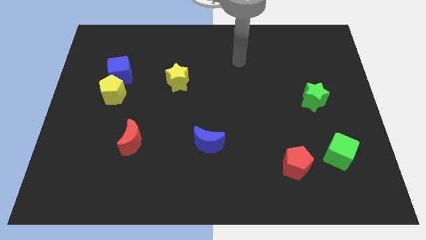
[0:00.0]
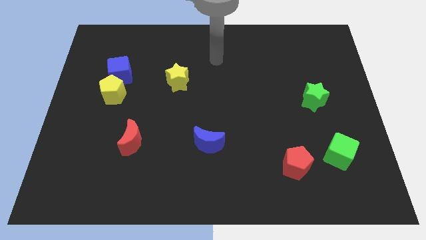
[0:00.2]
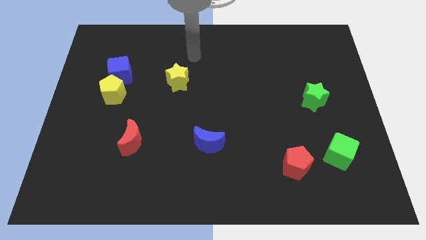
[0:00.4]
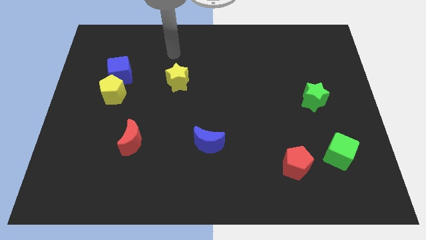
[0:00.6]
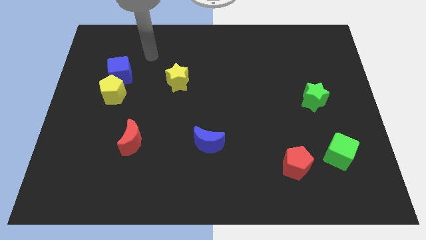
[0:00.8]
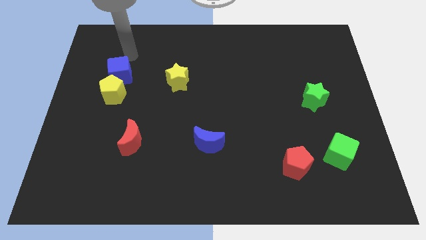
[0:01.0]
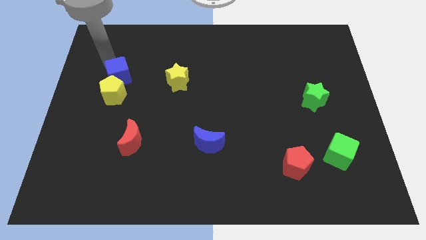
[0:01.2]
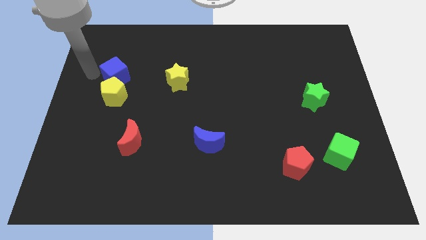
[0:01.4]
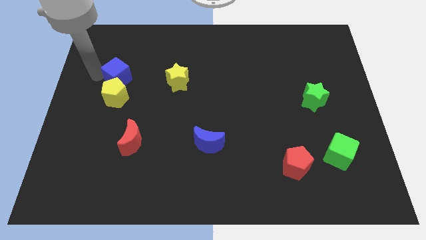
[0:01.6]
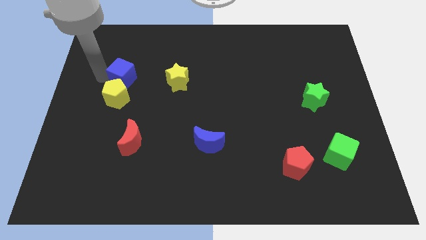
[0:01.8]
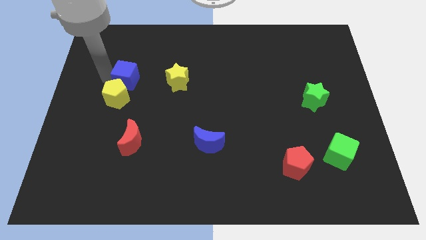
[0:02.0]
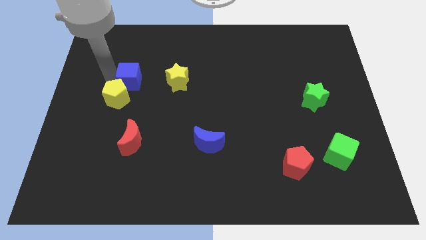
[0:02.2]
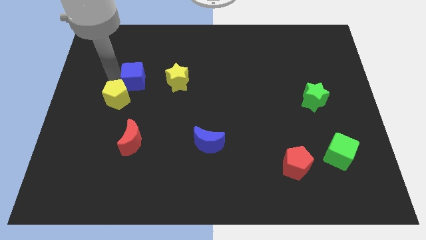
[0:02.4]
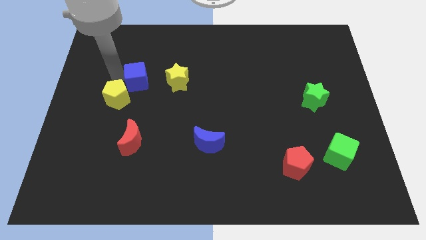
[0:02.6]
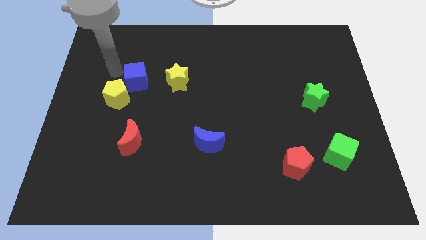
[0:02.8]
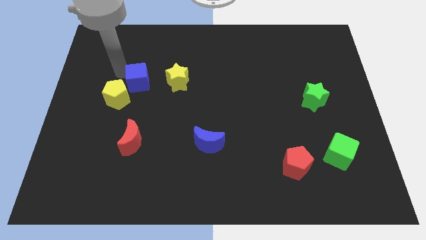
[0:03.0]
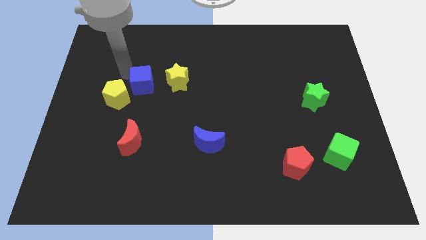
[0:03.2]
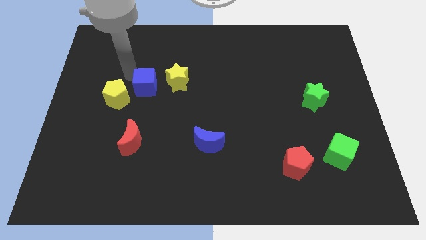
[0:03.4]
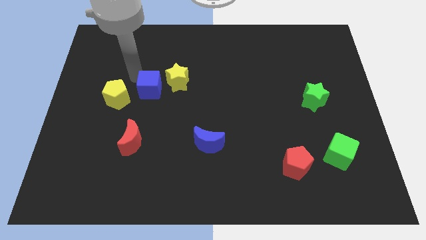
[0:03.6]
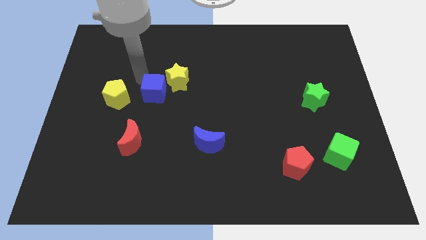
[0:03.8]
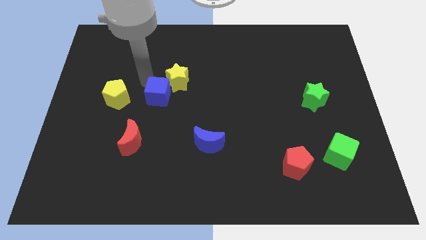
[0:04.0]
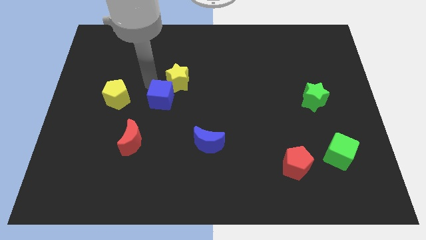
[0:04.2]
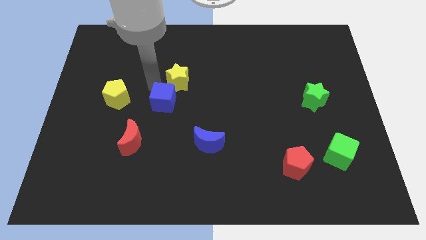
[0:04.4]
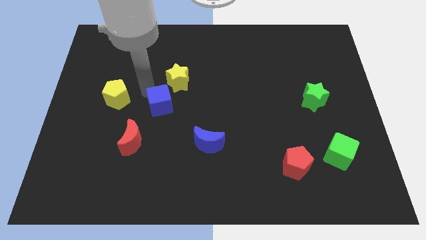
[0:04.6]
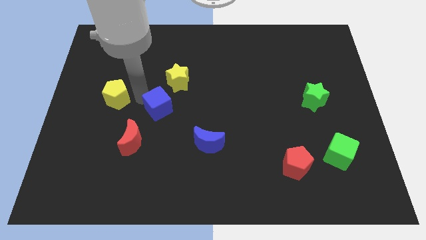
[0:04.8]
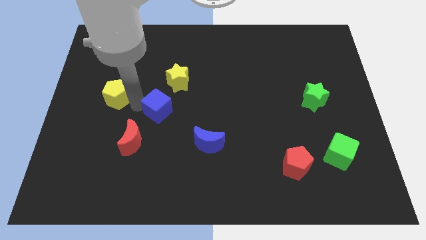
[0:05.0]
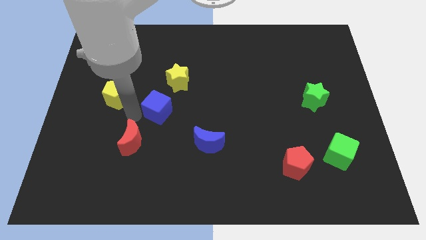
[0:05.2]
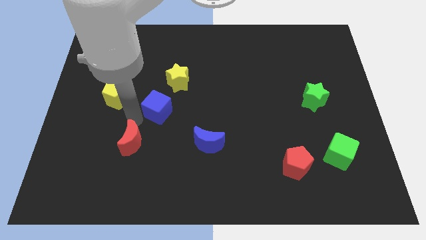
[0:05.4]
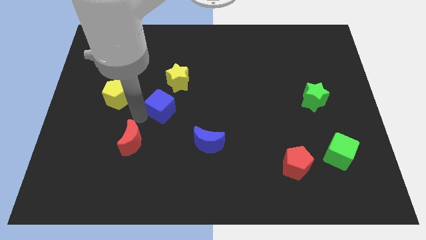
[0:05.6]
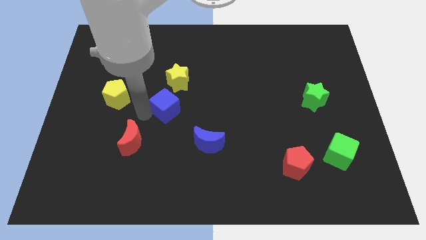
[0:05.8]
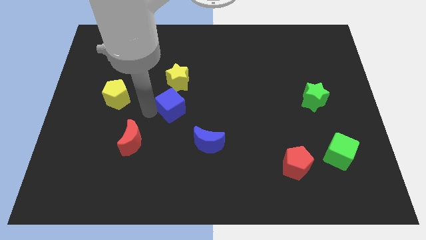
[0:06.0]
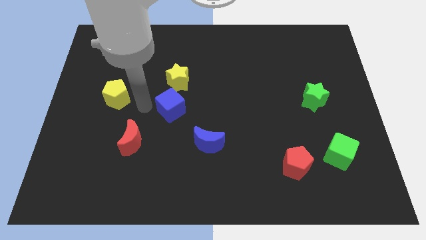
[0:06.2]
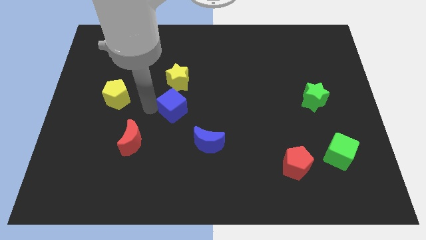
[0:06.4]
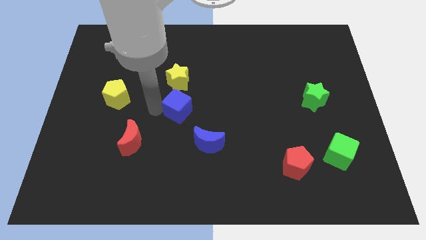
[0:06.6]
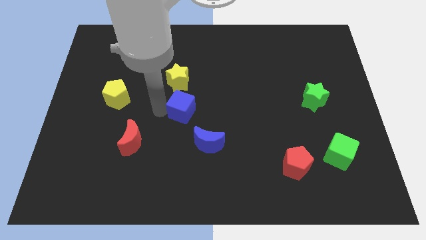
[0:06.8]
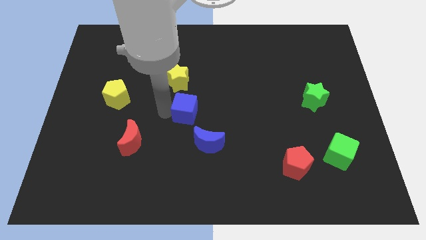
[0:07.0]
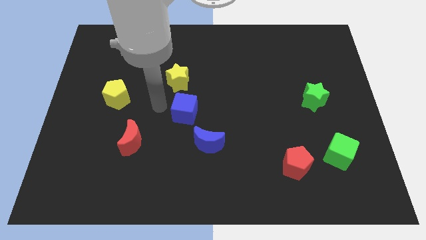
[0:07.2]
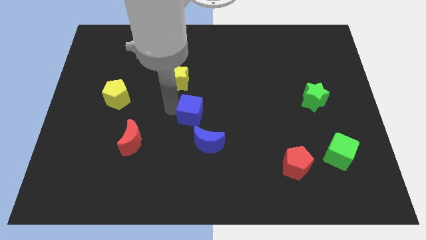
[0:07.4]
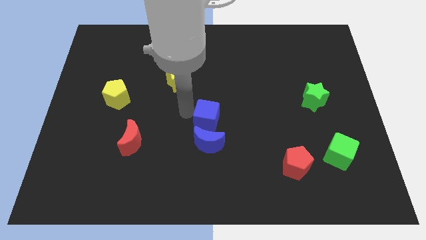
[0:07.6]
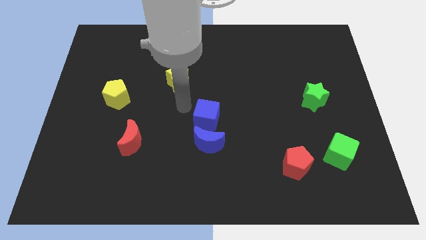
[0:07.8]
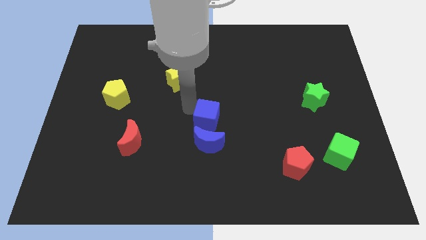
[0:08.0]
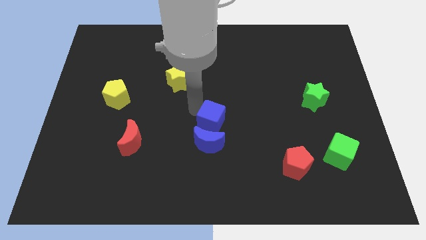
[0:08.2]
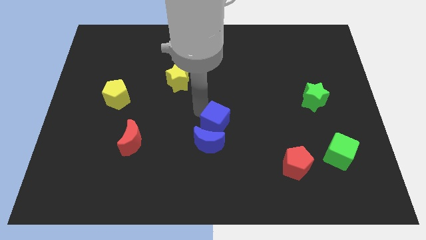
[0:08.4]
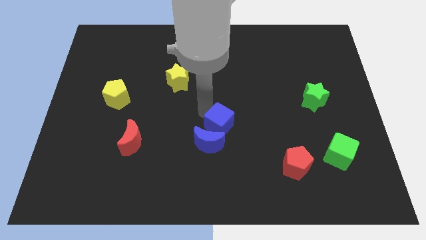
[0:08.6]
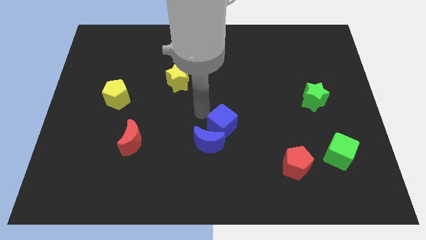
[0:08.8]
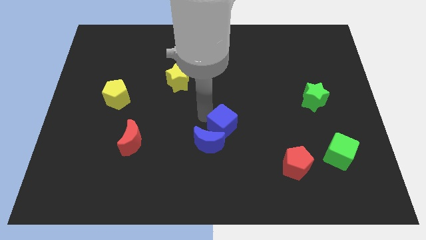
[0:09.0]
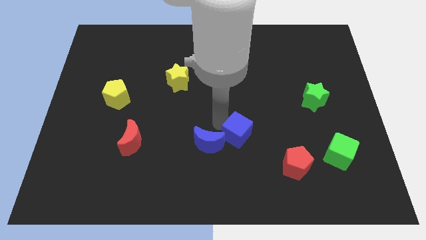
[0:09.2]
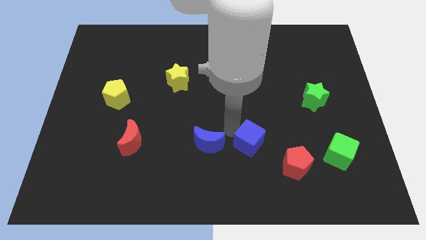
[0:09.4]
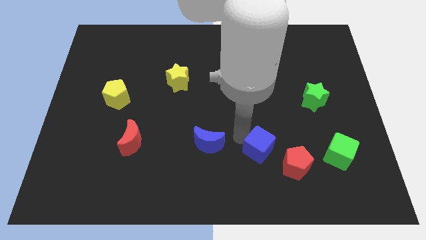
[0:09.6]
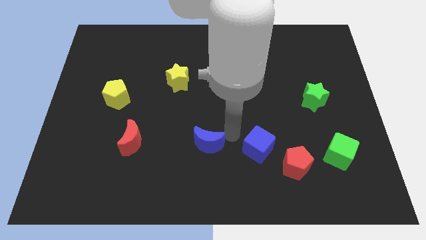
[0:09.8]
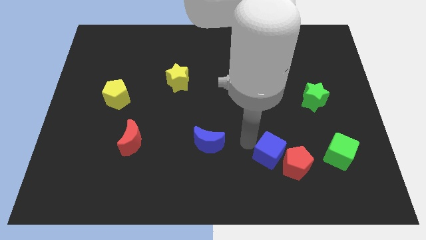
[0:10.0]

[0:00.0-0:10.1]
move the blue cube close to the red pentagon

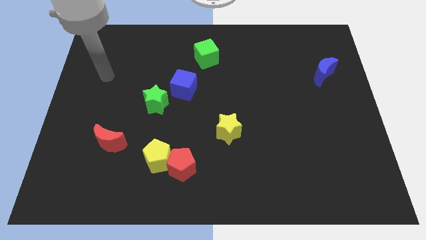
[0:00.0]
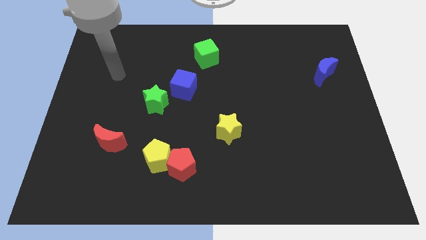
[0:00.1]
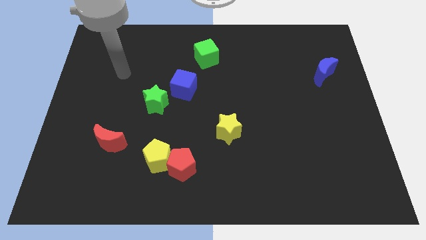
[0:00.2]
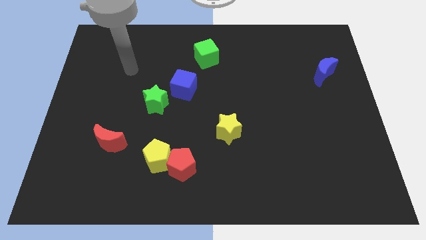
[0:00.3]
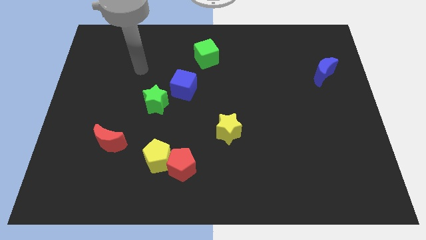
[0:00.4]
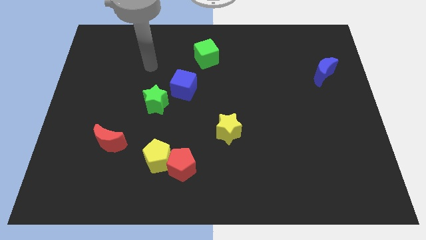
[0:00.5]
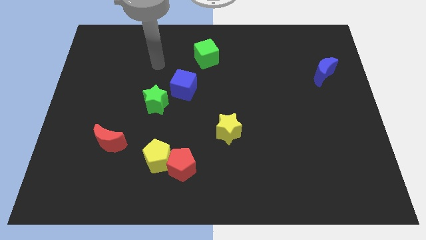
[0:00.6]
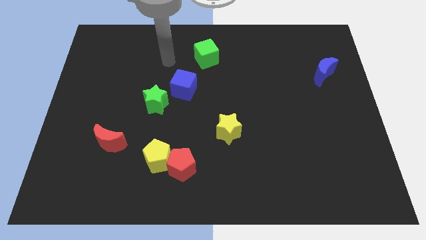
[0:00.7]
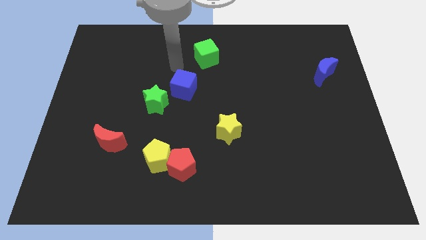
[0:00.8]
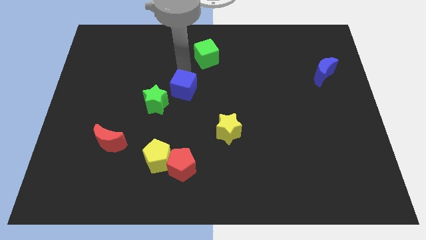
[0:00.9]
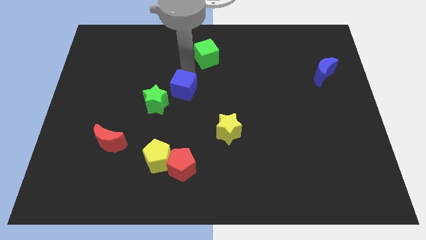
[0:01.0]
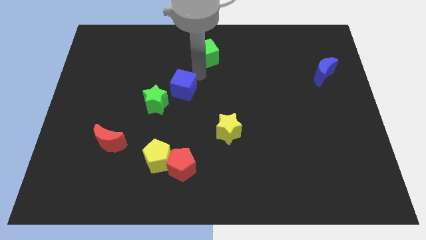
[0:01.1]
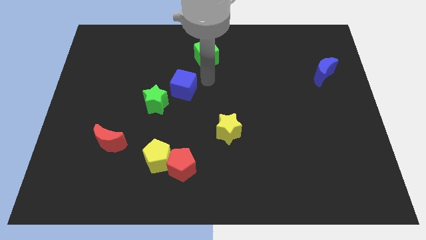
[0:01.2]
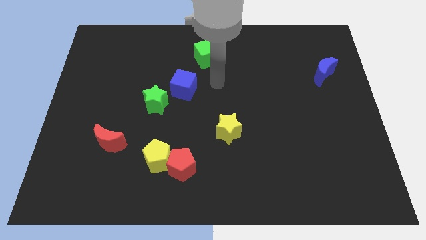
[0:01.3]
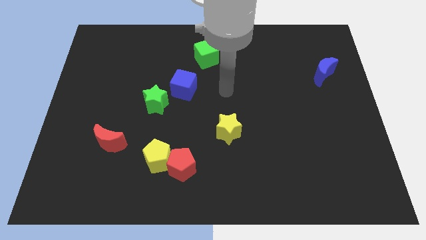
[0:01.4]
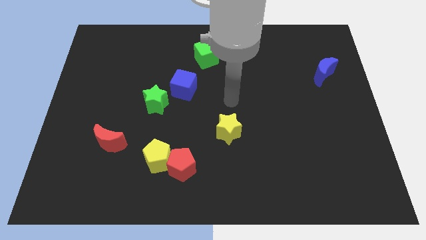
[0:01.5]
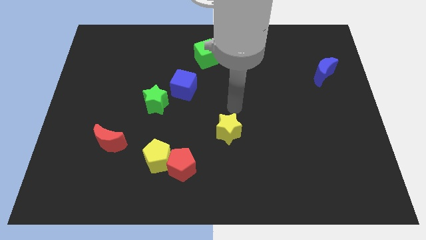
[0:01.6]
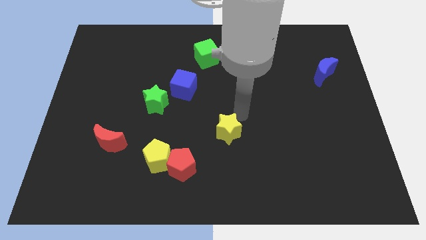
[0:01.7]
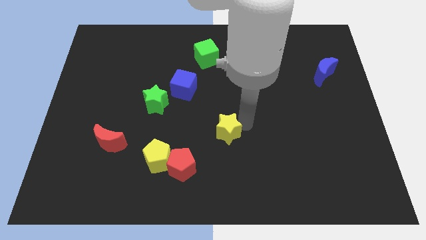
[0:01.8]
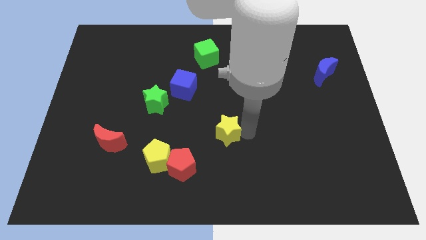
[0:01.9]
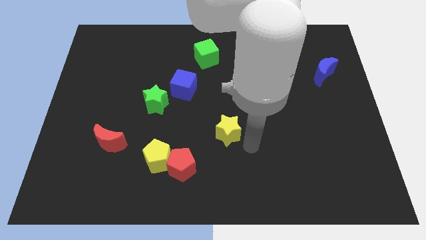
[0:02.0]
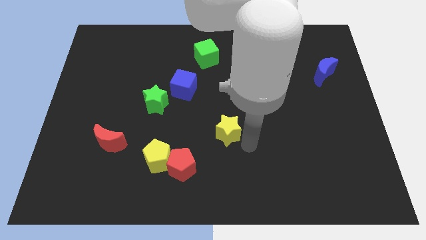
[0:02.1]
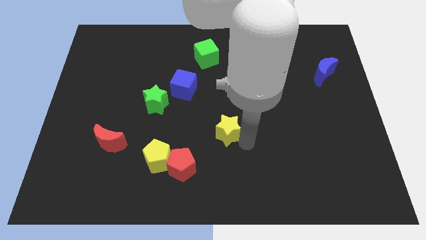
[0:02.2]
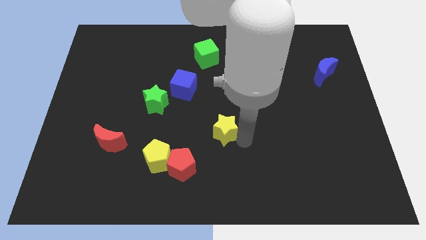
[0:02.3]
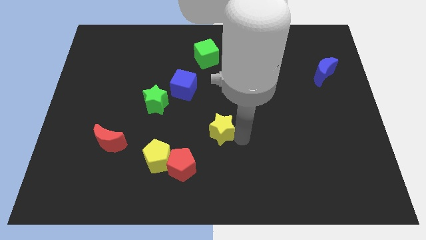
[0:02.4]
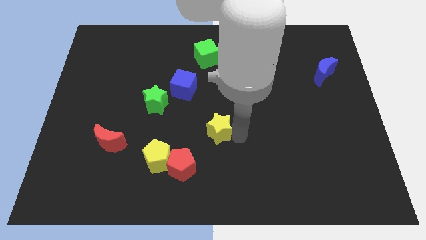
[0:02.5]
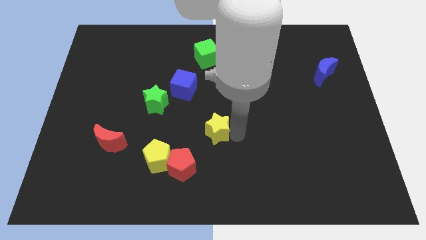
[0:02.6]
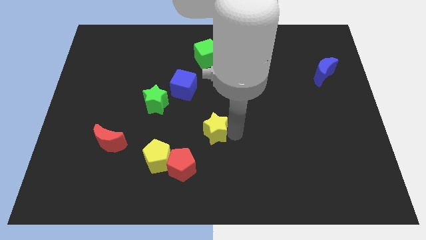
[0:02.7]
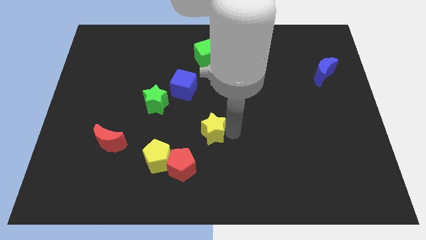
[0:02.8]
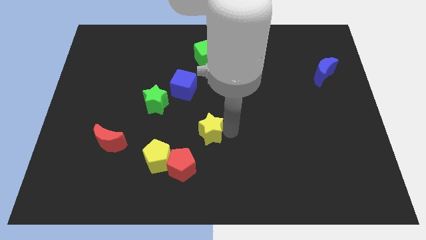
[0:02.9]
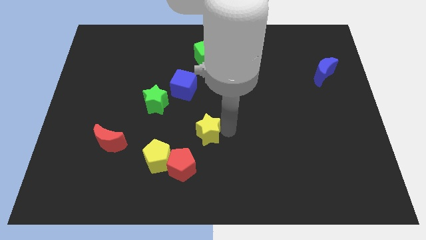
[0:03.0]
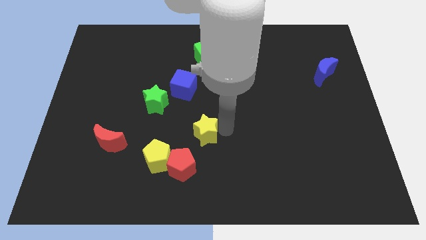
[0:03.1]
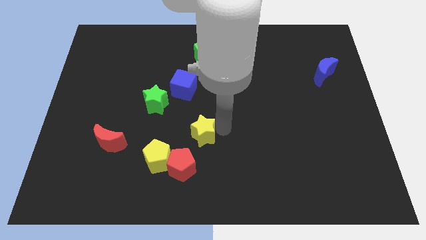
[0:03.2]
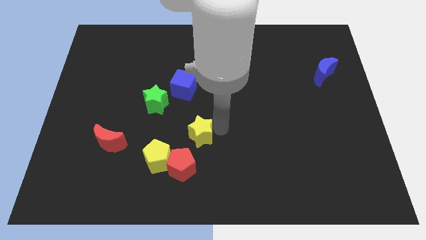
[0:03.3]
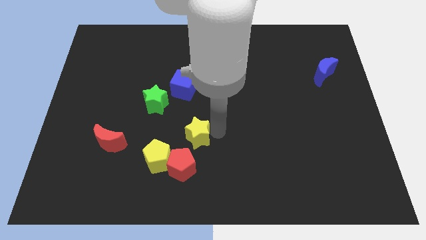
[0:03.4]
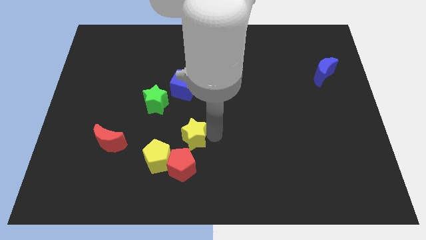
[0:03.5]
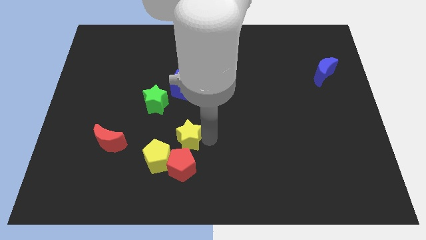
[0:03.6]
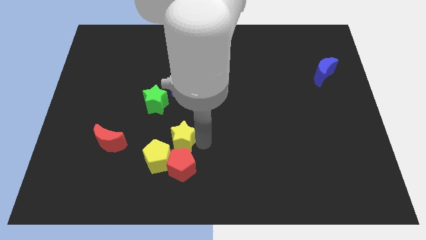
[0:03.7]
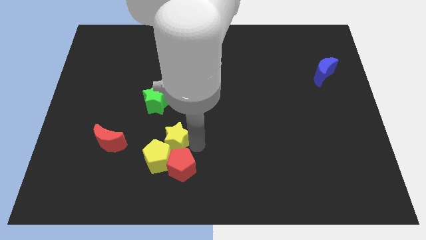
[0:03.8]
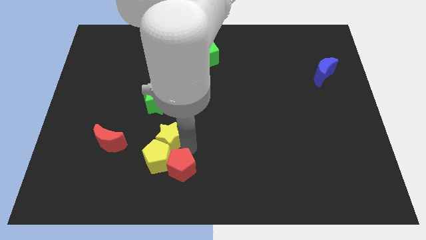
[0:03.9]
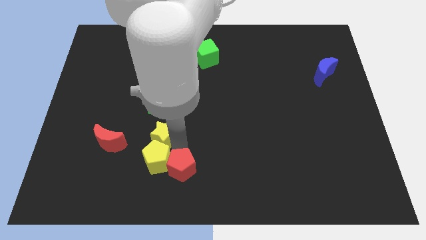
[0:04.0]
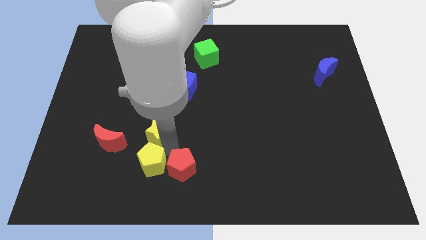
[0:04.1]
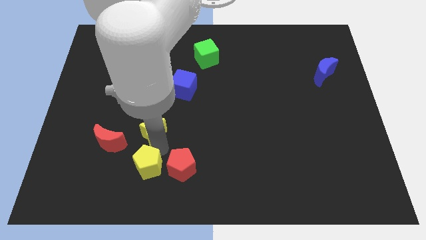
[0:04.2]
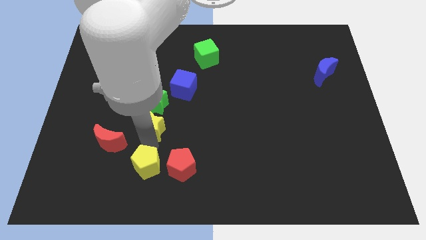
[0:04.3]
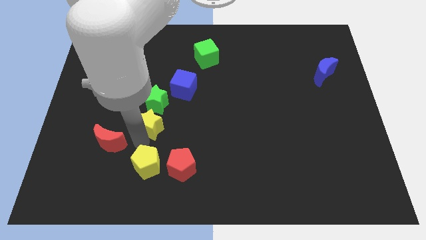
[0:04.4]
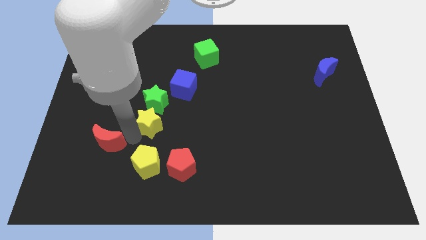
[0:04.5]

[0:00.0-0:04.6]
move the yellow star next to the green star
